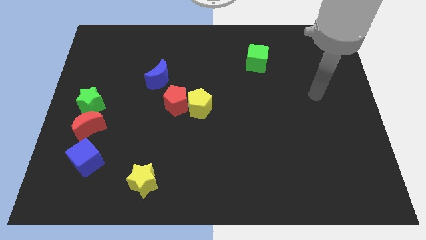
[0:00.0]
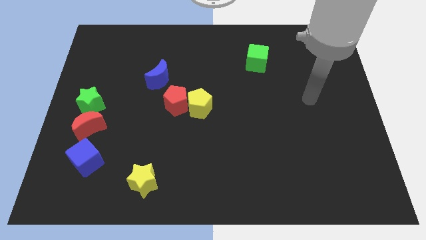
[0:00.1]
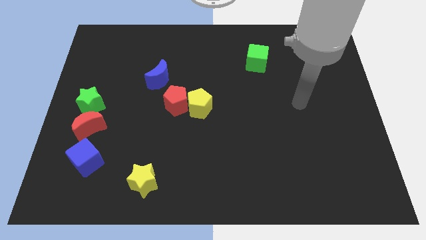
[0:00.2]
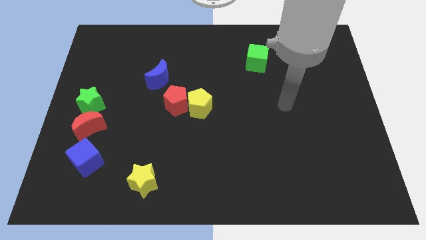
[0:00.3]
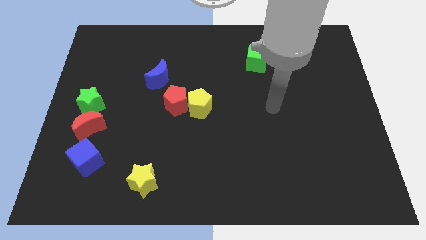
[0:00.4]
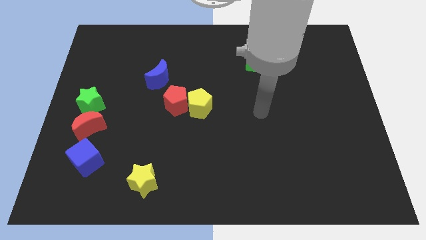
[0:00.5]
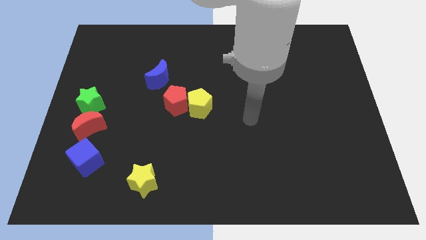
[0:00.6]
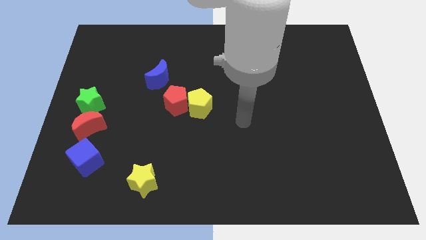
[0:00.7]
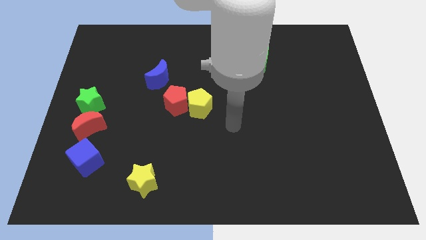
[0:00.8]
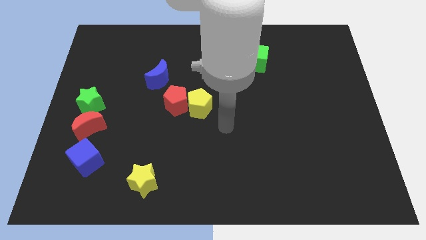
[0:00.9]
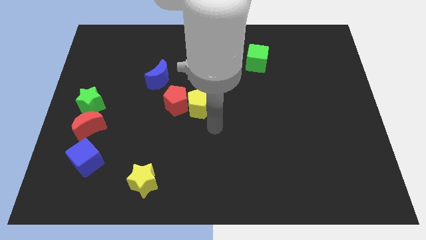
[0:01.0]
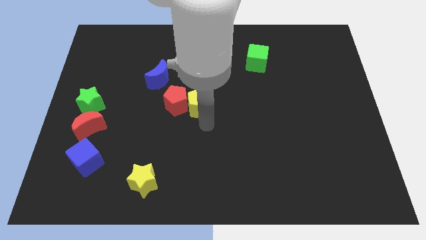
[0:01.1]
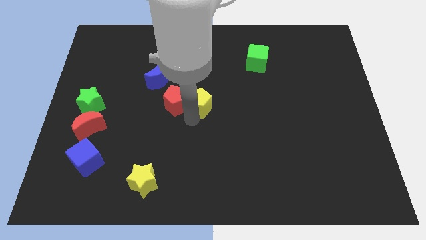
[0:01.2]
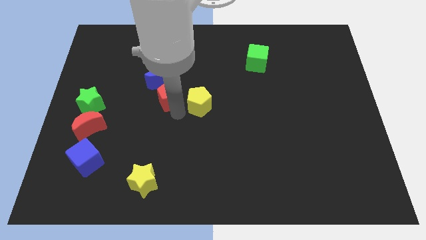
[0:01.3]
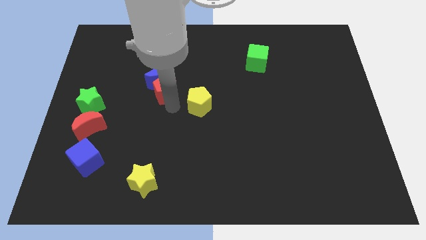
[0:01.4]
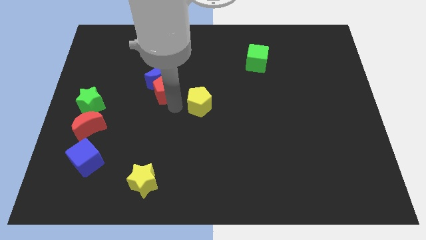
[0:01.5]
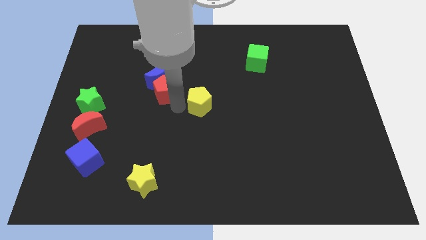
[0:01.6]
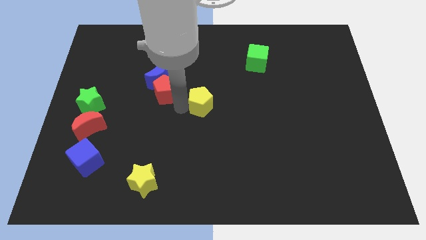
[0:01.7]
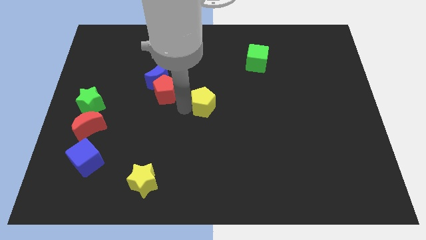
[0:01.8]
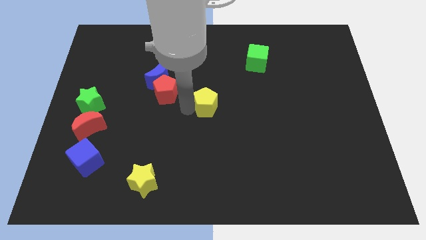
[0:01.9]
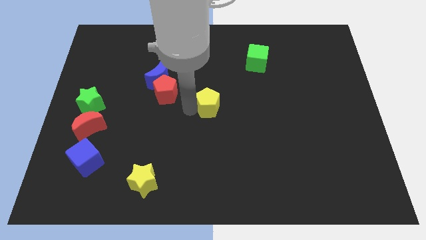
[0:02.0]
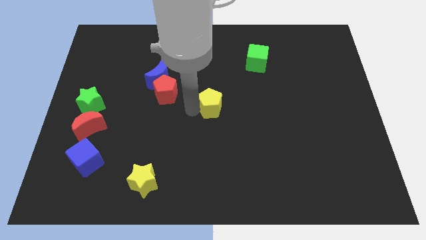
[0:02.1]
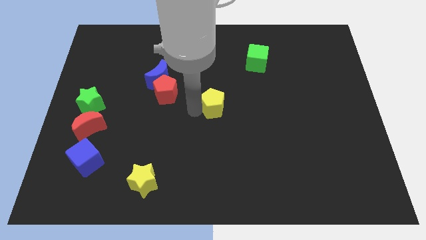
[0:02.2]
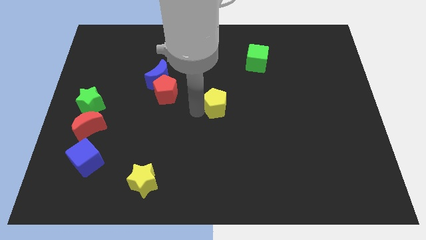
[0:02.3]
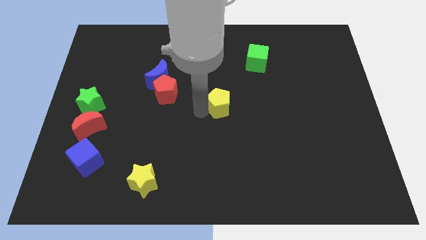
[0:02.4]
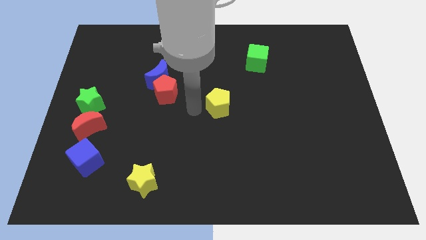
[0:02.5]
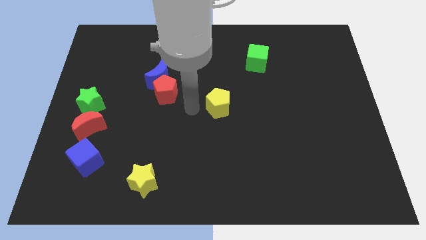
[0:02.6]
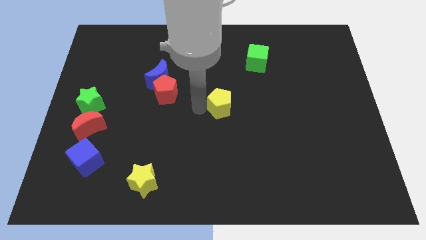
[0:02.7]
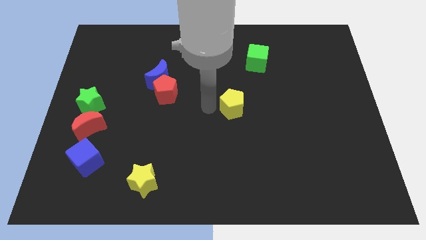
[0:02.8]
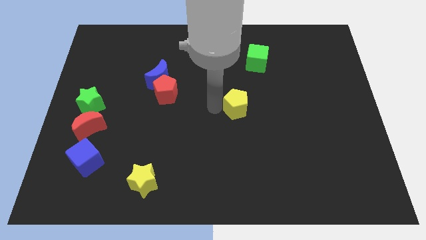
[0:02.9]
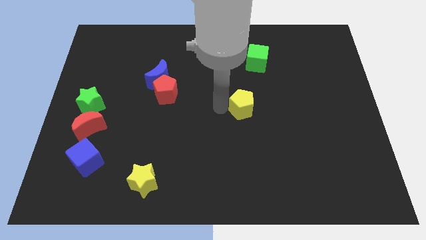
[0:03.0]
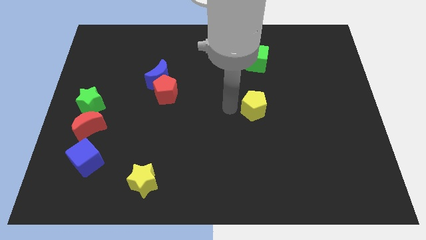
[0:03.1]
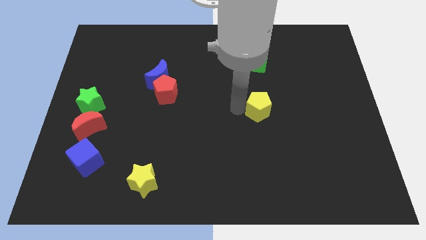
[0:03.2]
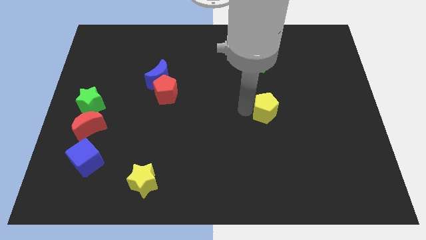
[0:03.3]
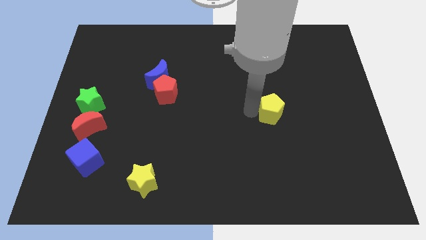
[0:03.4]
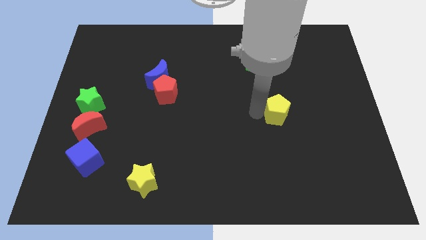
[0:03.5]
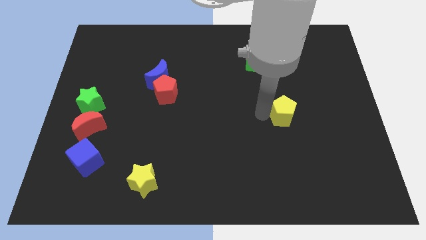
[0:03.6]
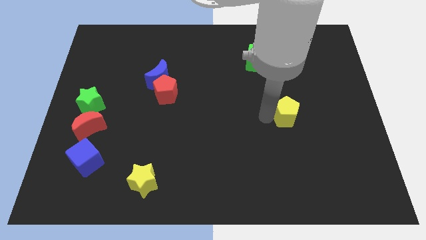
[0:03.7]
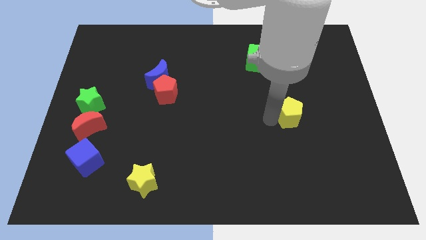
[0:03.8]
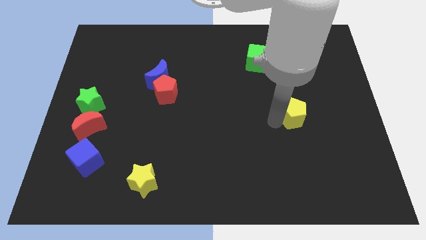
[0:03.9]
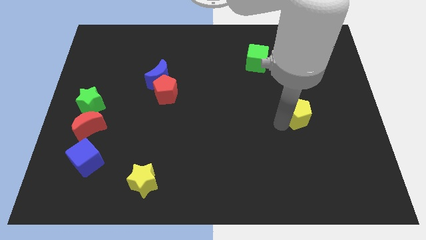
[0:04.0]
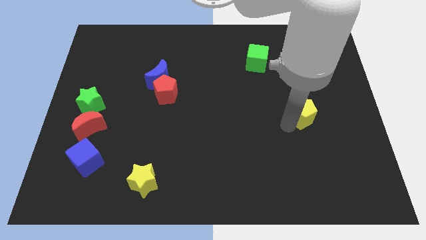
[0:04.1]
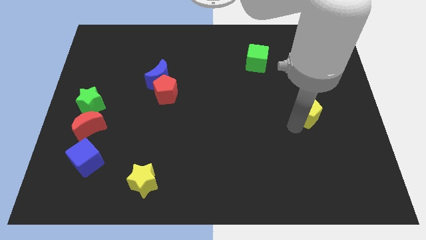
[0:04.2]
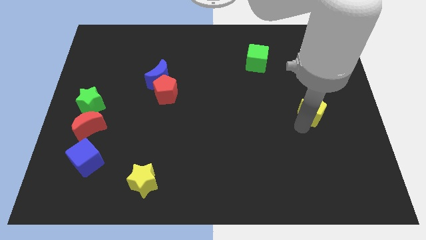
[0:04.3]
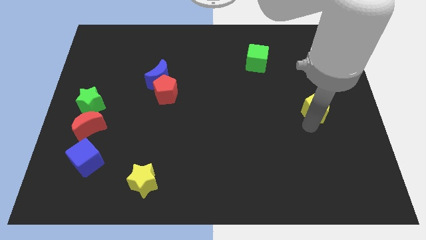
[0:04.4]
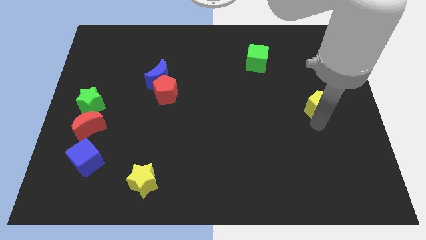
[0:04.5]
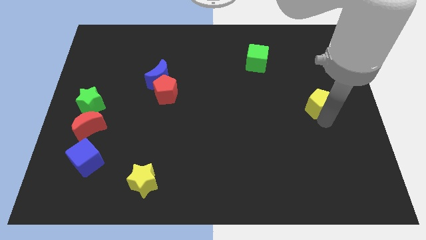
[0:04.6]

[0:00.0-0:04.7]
move the yellow pentagon to the right side

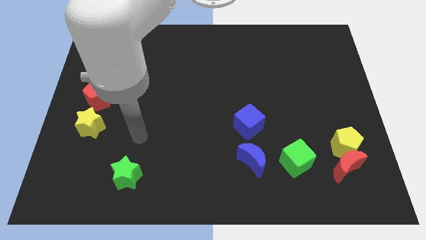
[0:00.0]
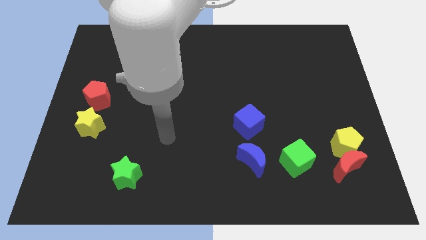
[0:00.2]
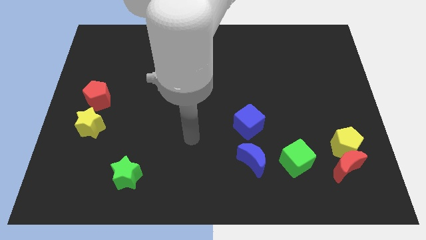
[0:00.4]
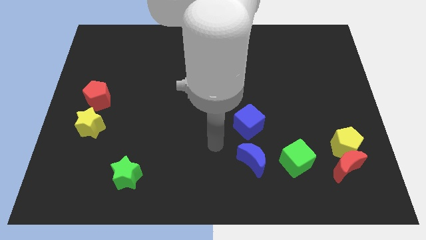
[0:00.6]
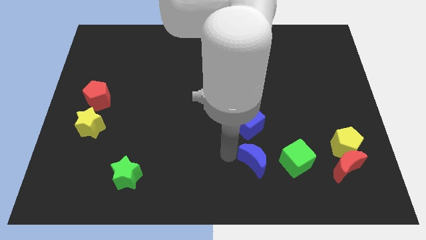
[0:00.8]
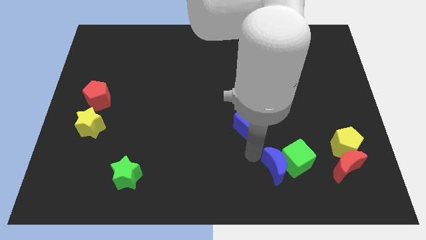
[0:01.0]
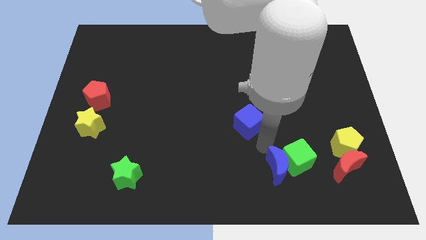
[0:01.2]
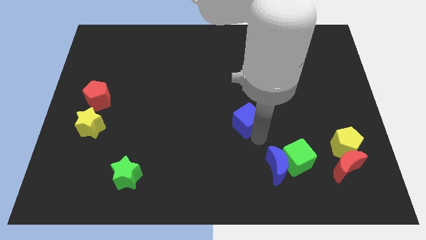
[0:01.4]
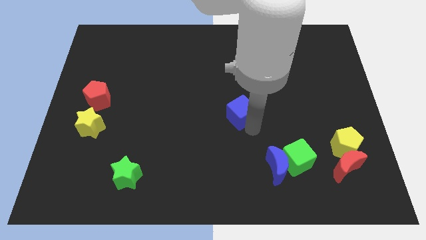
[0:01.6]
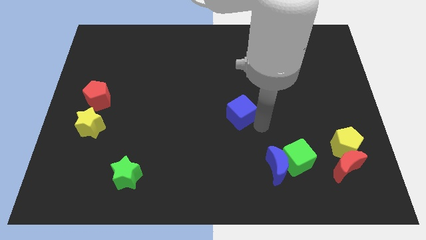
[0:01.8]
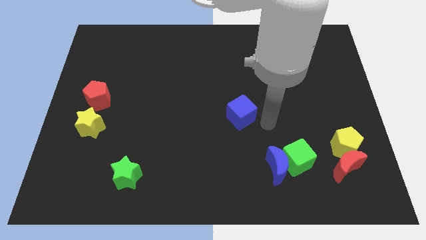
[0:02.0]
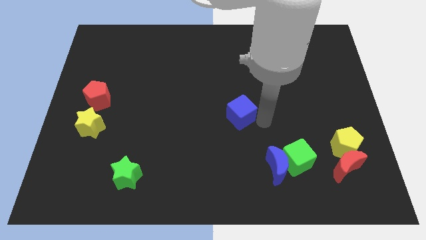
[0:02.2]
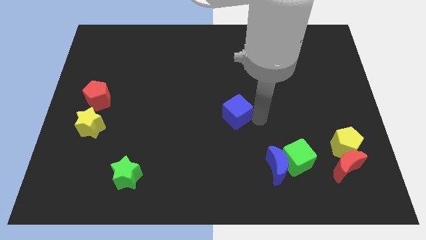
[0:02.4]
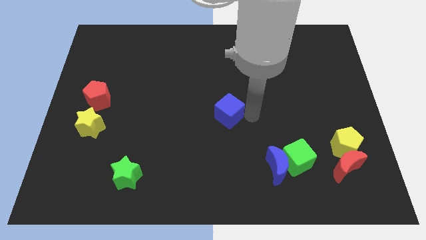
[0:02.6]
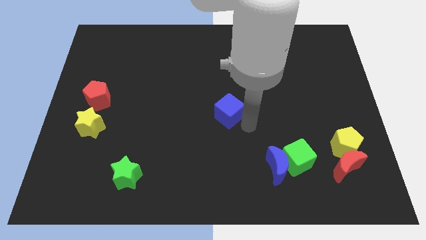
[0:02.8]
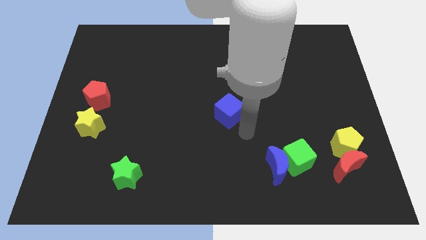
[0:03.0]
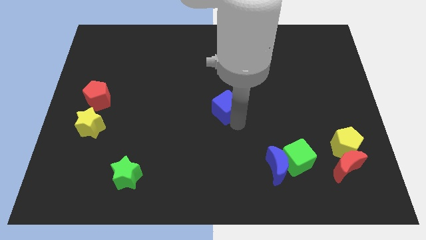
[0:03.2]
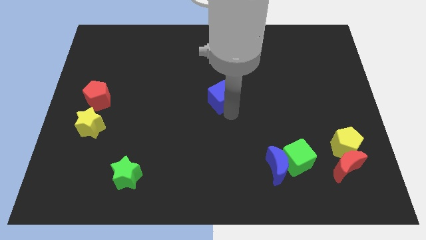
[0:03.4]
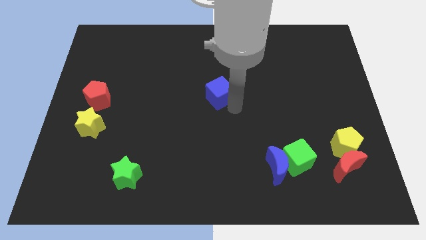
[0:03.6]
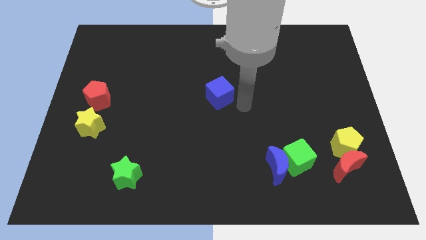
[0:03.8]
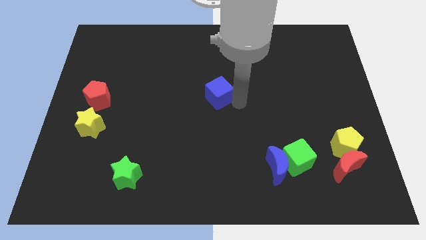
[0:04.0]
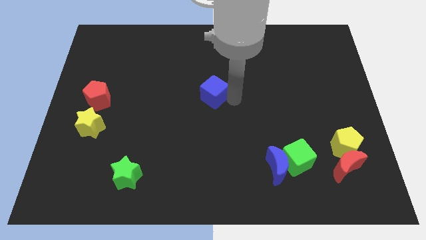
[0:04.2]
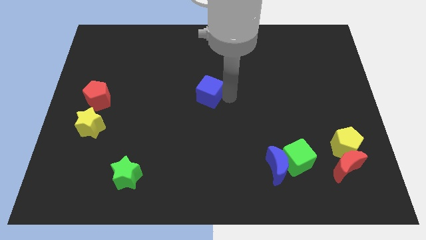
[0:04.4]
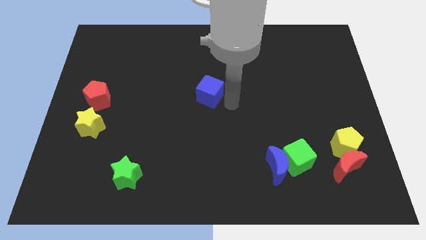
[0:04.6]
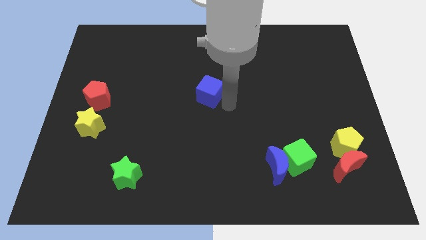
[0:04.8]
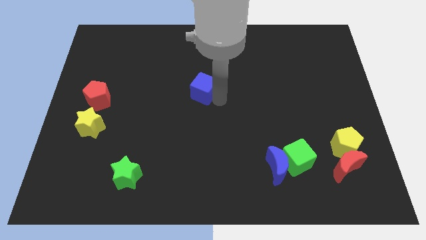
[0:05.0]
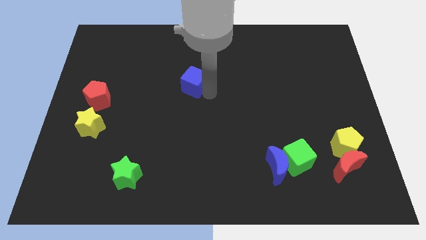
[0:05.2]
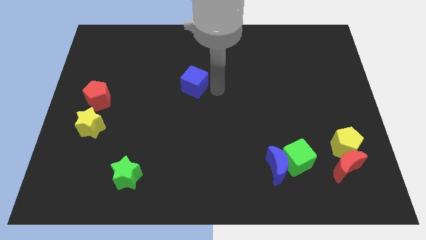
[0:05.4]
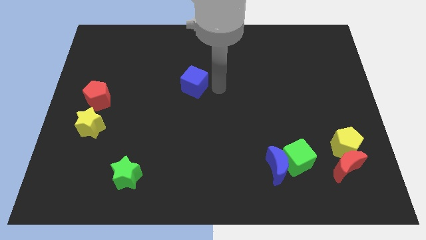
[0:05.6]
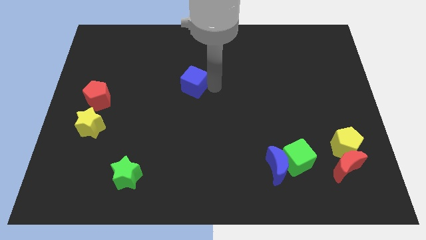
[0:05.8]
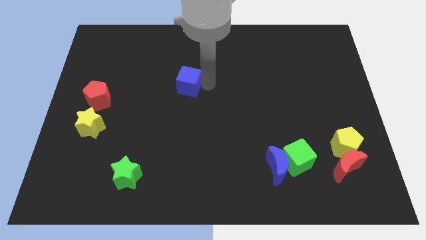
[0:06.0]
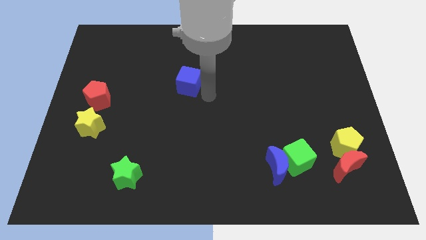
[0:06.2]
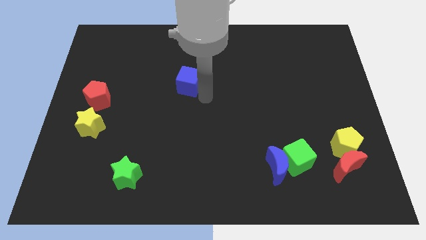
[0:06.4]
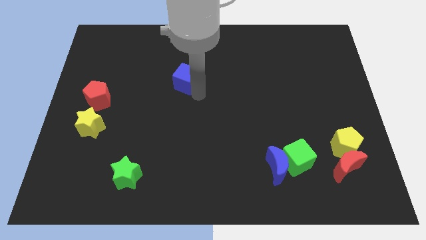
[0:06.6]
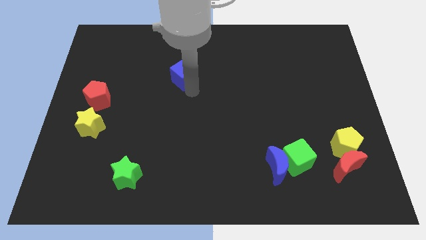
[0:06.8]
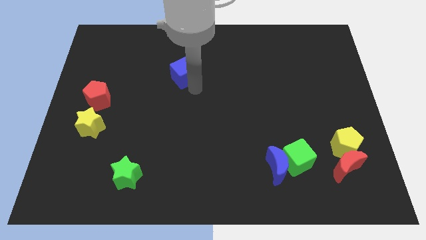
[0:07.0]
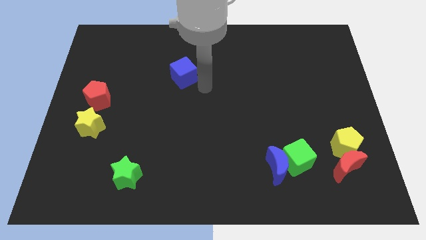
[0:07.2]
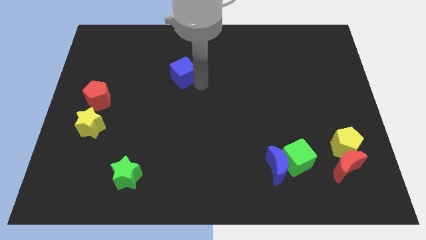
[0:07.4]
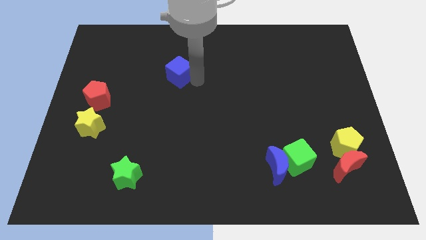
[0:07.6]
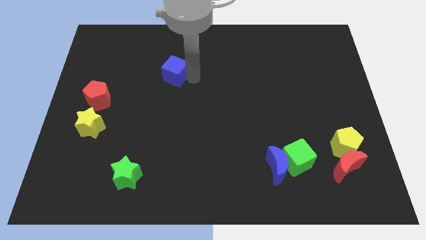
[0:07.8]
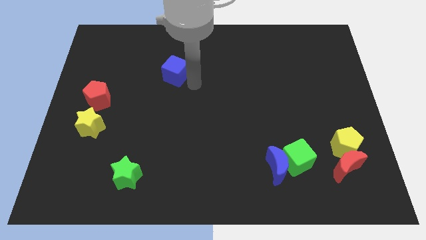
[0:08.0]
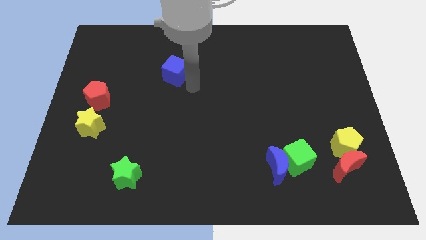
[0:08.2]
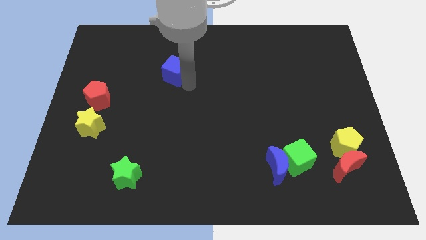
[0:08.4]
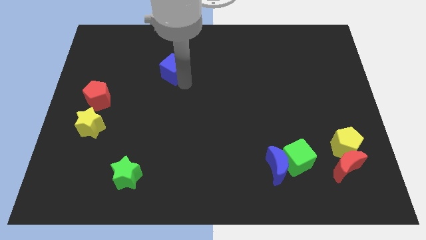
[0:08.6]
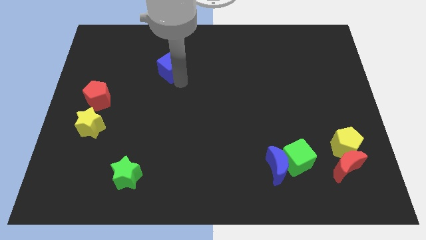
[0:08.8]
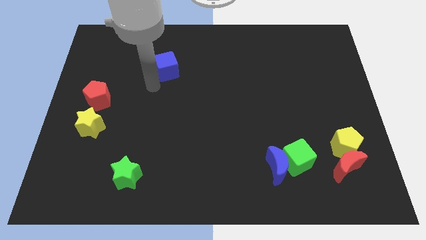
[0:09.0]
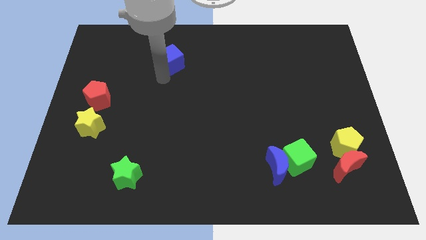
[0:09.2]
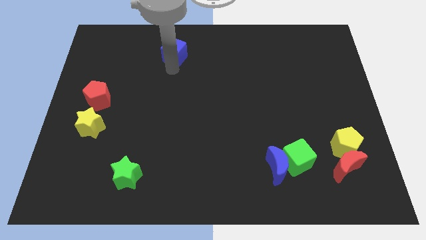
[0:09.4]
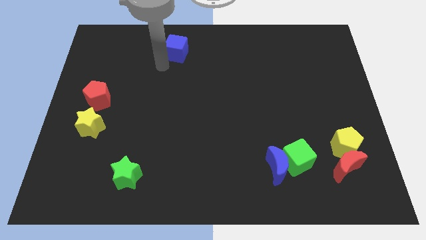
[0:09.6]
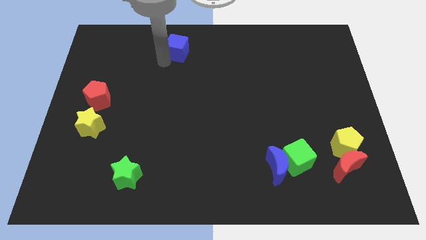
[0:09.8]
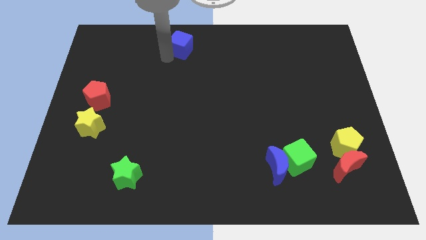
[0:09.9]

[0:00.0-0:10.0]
put the blue cube to the towards your base
